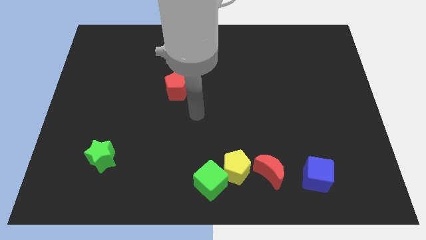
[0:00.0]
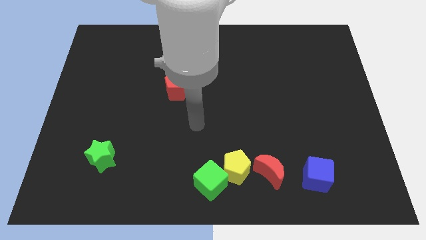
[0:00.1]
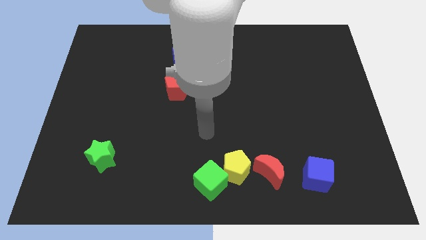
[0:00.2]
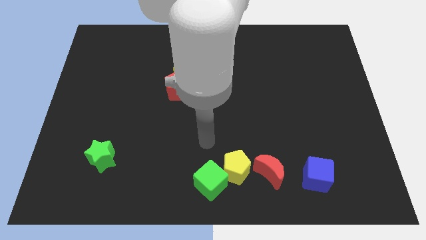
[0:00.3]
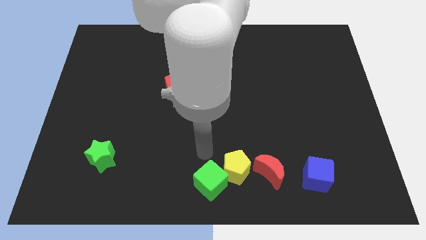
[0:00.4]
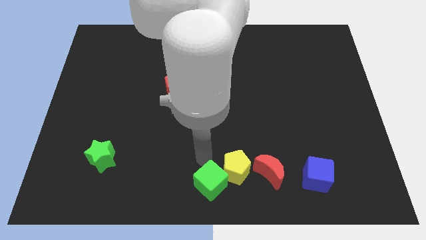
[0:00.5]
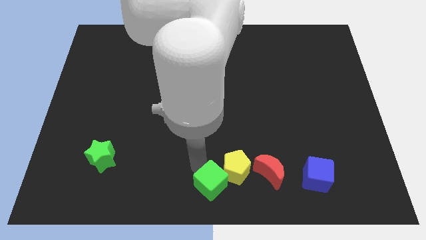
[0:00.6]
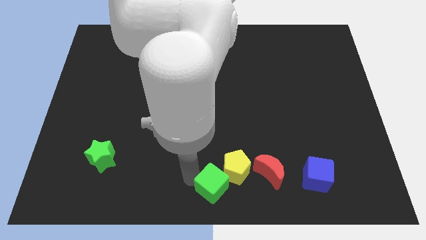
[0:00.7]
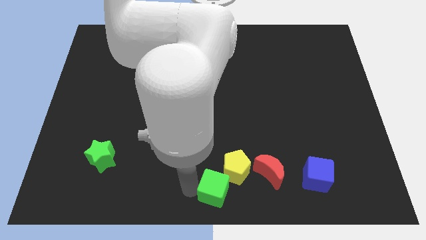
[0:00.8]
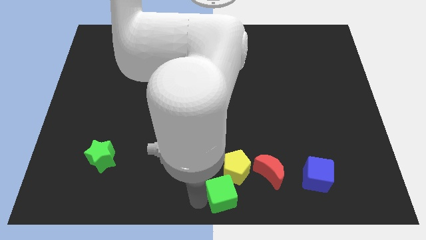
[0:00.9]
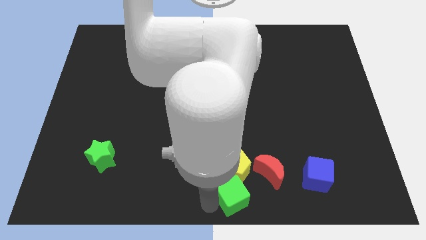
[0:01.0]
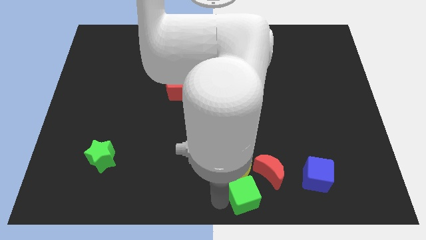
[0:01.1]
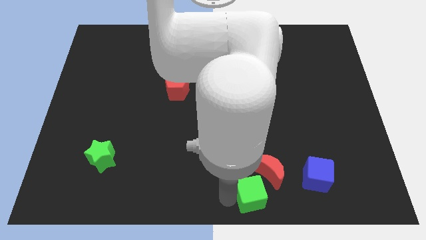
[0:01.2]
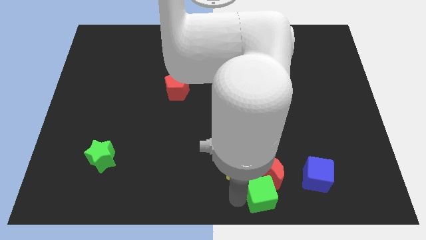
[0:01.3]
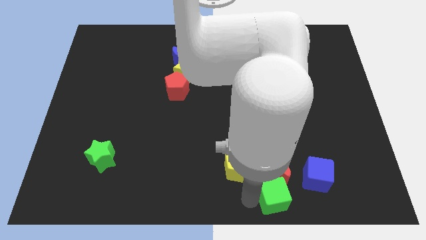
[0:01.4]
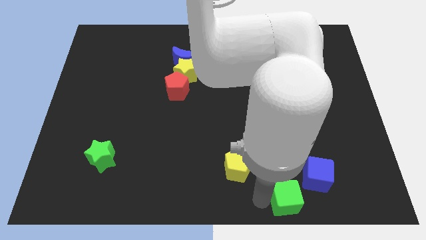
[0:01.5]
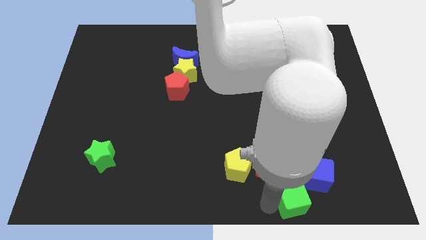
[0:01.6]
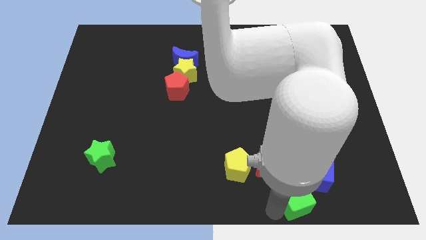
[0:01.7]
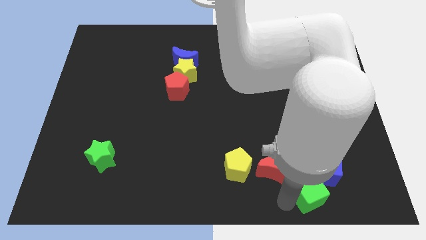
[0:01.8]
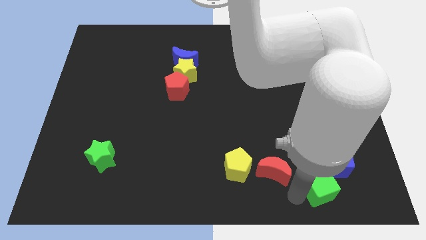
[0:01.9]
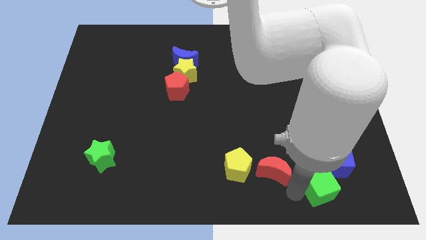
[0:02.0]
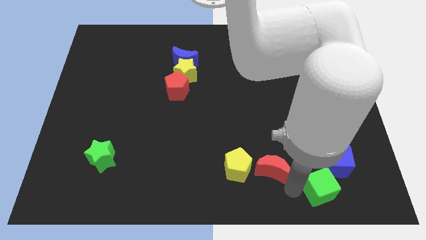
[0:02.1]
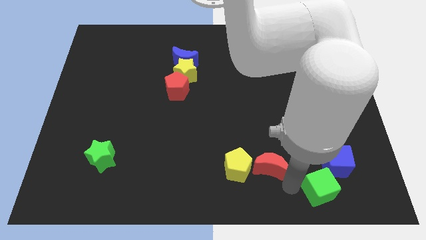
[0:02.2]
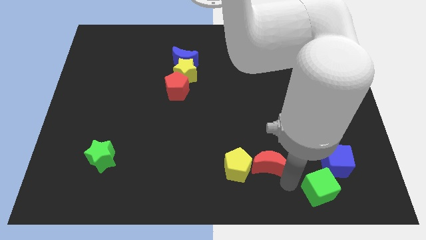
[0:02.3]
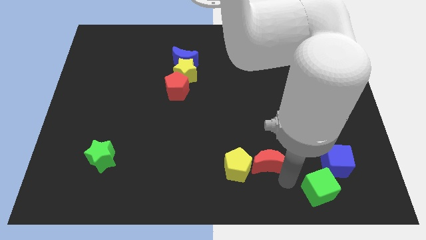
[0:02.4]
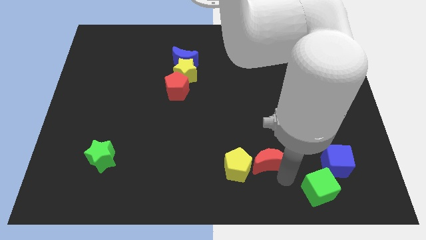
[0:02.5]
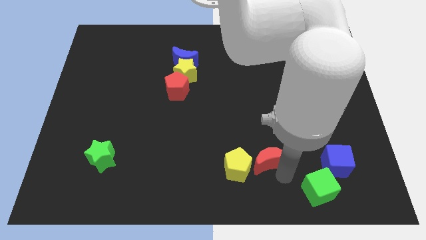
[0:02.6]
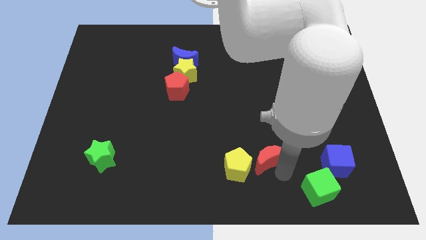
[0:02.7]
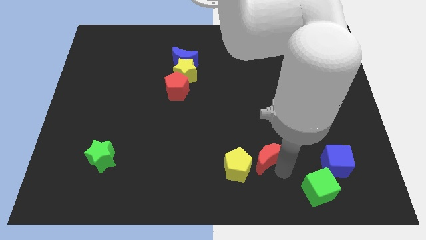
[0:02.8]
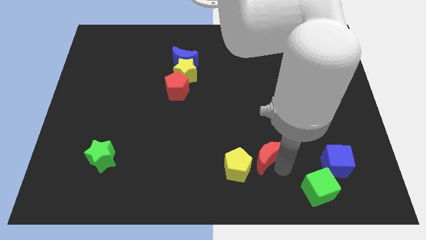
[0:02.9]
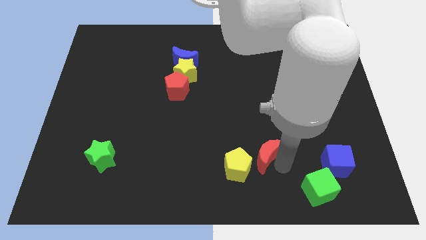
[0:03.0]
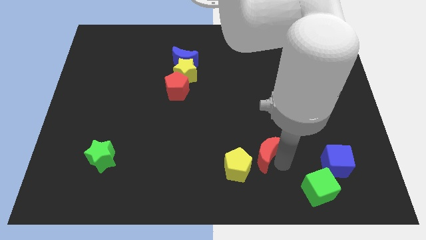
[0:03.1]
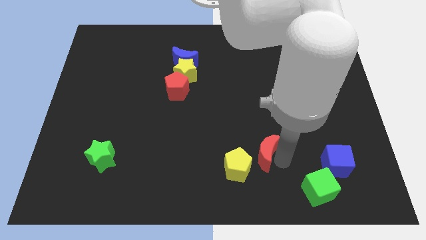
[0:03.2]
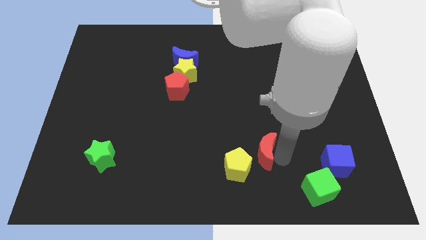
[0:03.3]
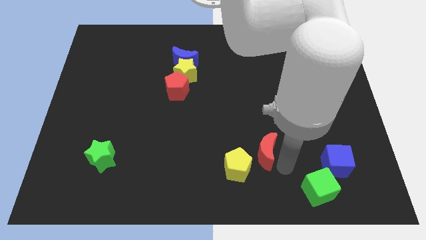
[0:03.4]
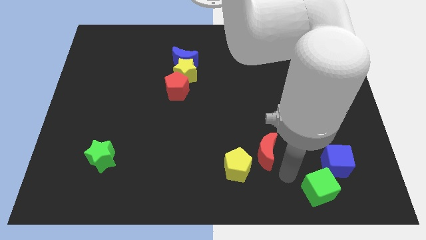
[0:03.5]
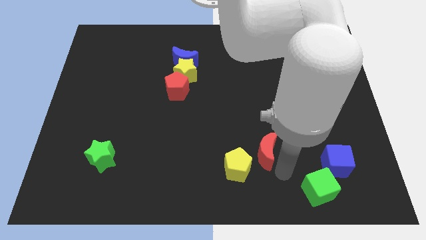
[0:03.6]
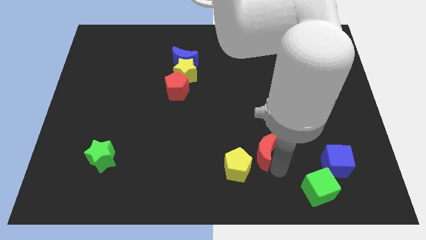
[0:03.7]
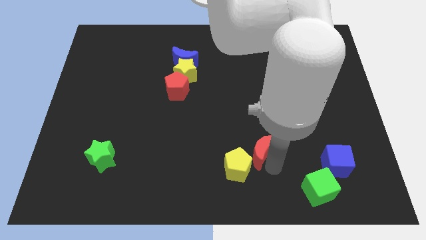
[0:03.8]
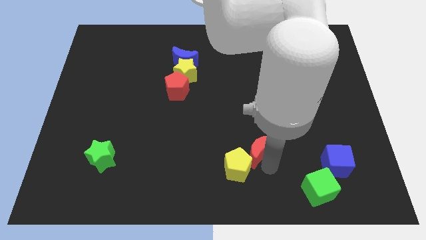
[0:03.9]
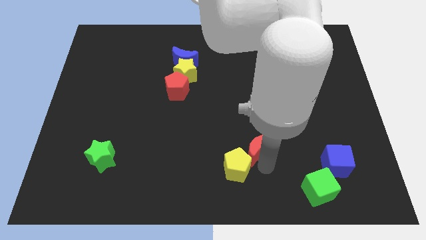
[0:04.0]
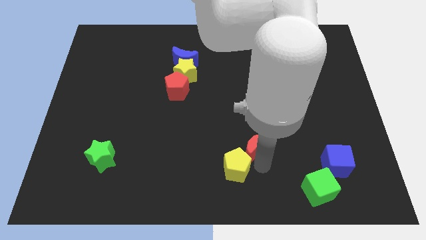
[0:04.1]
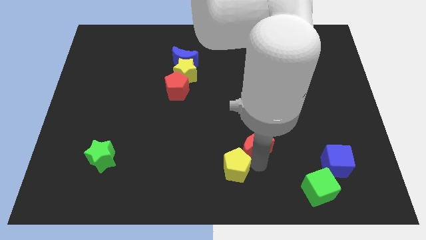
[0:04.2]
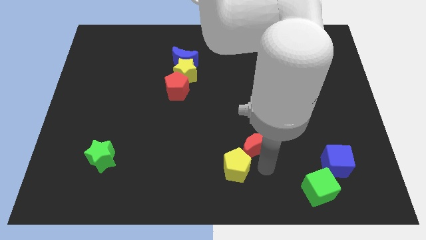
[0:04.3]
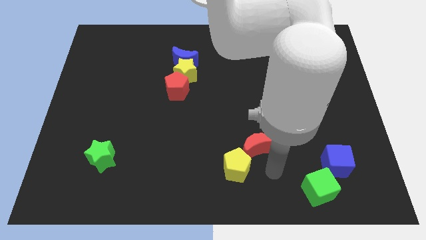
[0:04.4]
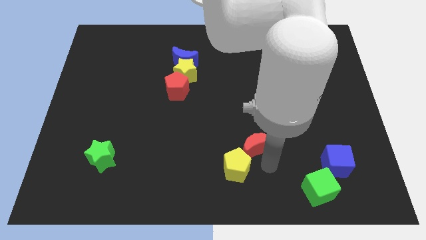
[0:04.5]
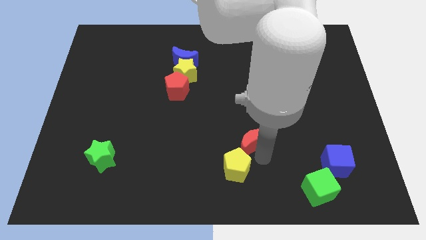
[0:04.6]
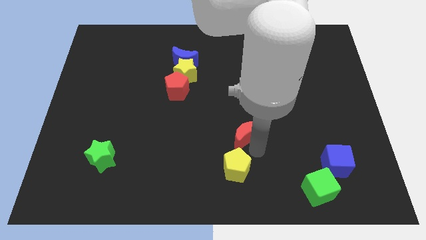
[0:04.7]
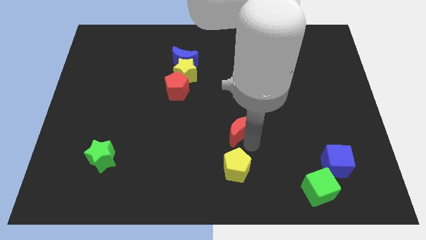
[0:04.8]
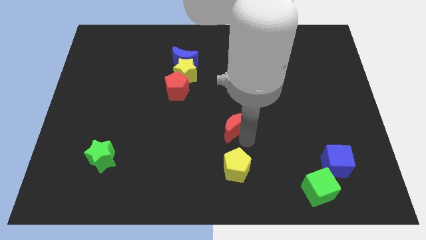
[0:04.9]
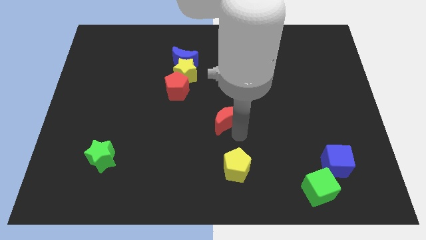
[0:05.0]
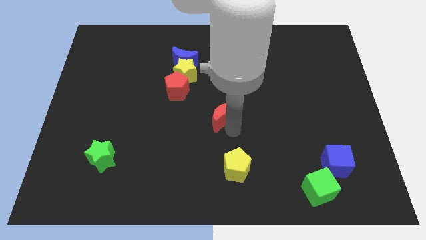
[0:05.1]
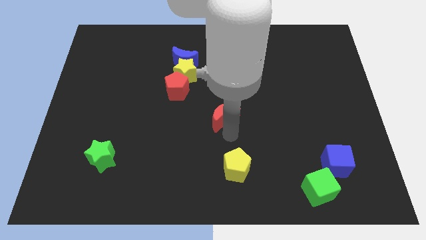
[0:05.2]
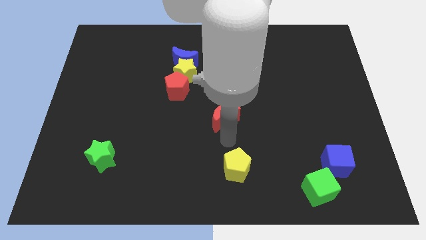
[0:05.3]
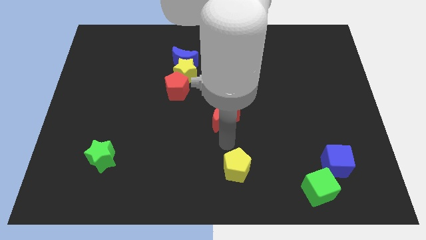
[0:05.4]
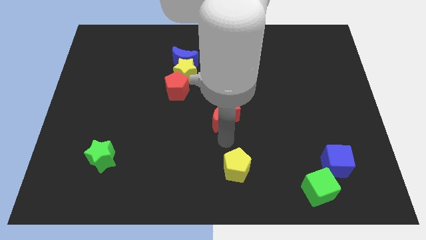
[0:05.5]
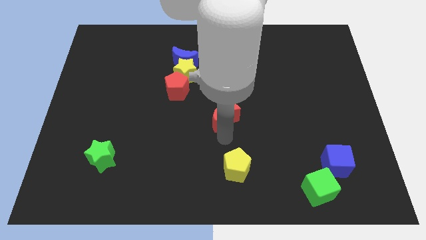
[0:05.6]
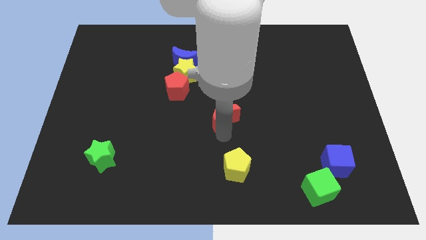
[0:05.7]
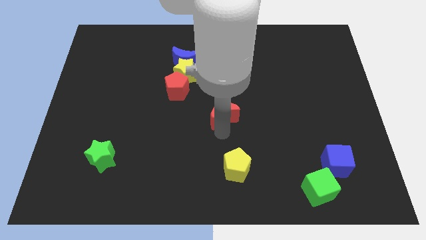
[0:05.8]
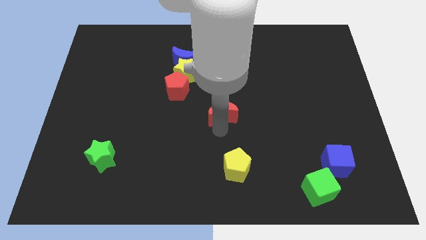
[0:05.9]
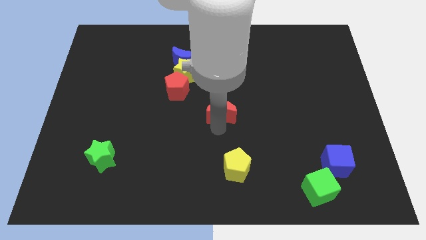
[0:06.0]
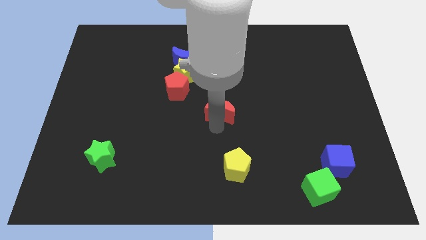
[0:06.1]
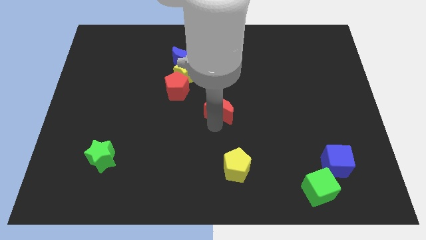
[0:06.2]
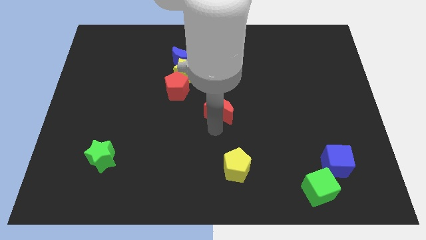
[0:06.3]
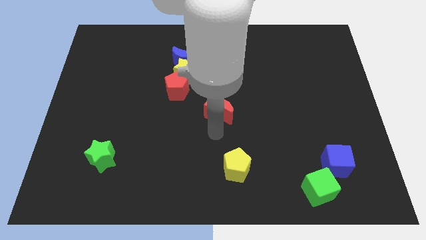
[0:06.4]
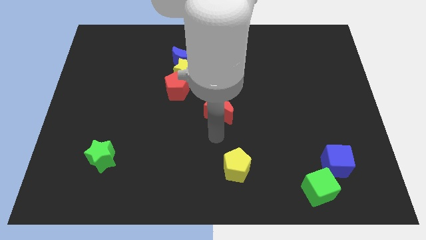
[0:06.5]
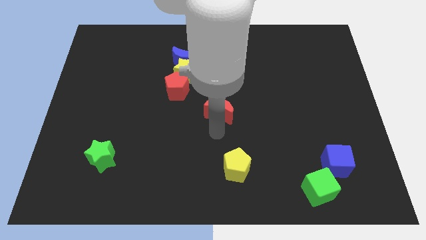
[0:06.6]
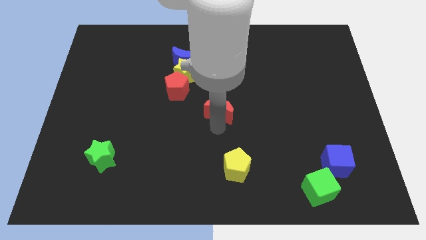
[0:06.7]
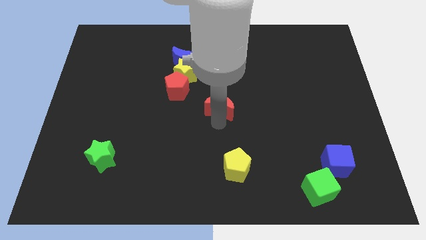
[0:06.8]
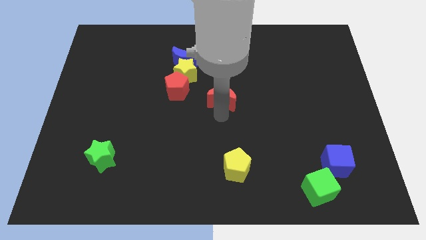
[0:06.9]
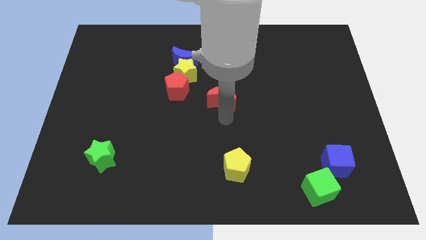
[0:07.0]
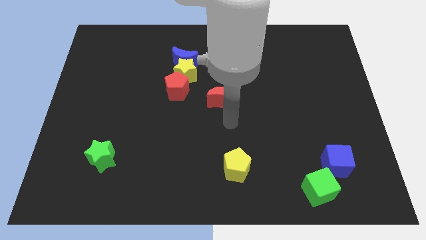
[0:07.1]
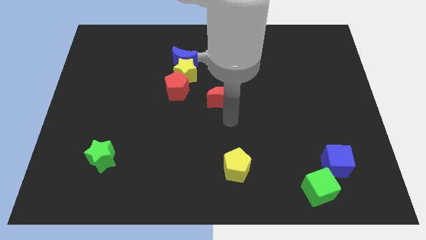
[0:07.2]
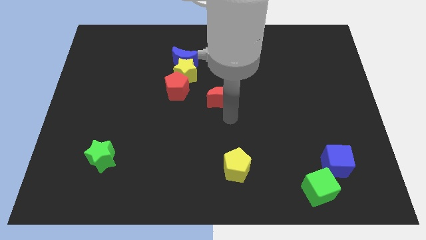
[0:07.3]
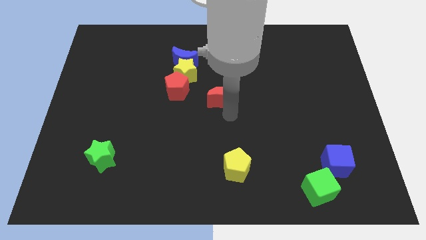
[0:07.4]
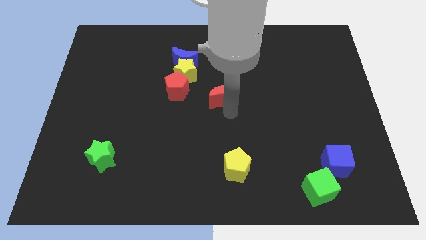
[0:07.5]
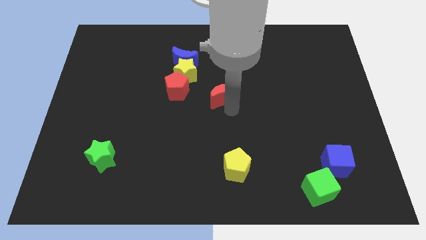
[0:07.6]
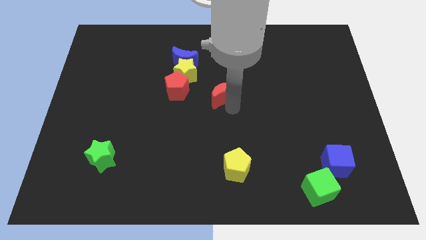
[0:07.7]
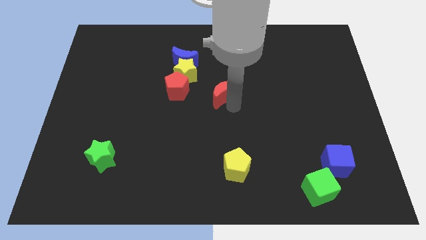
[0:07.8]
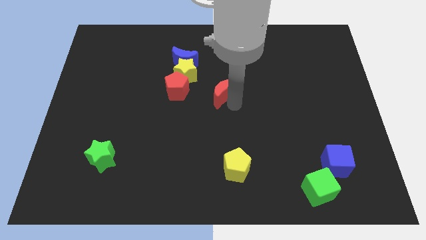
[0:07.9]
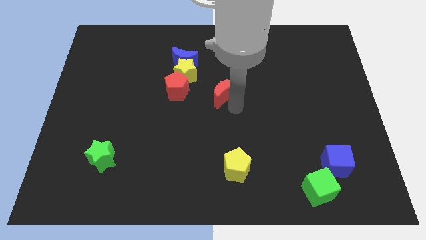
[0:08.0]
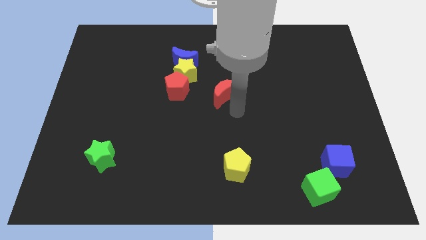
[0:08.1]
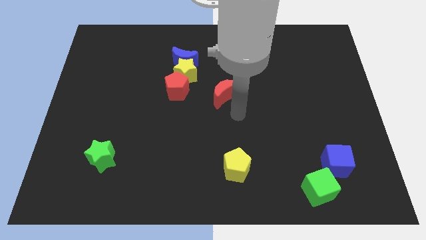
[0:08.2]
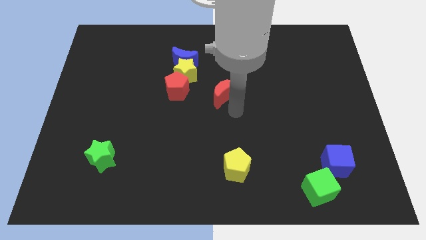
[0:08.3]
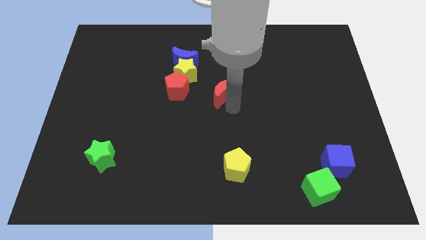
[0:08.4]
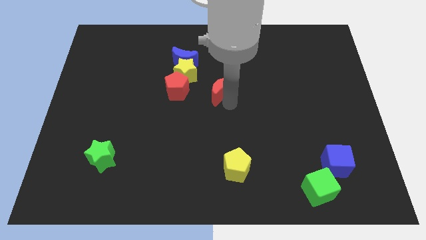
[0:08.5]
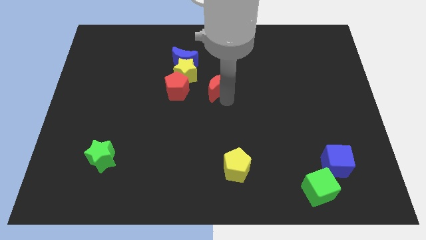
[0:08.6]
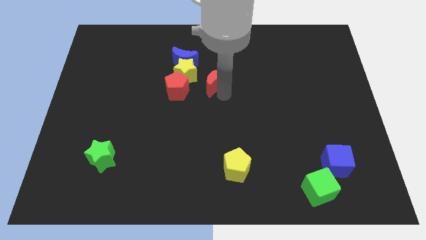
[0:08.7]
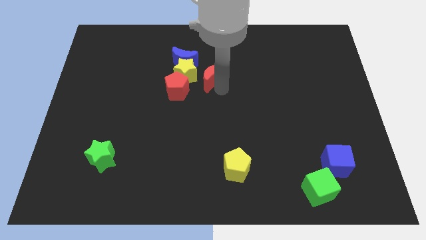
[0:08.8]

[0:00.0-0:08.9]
push the red moon to the top right of the red pentagon
